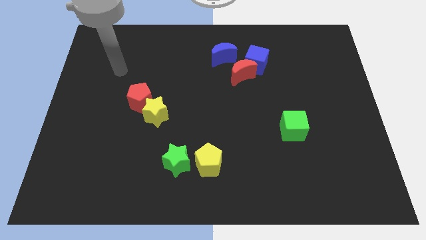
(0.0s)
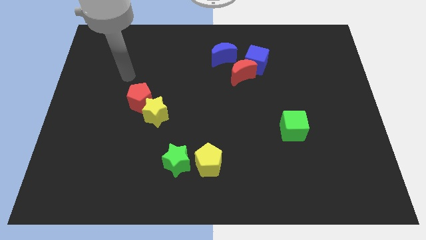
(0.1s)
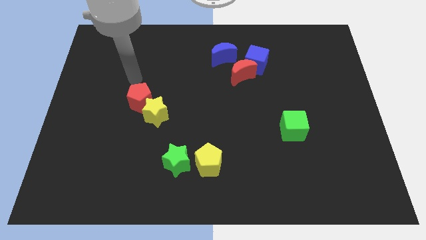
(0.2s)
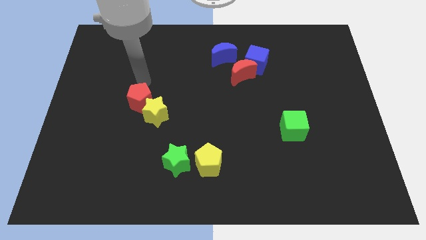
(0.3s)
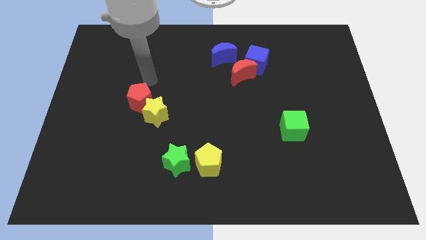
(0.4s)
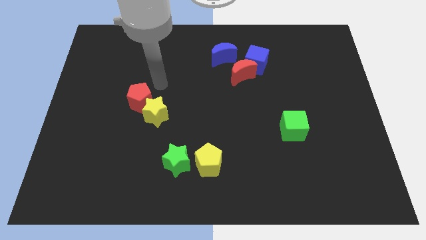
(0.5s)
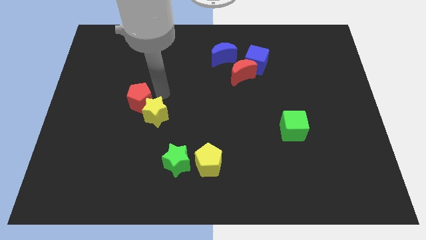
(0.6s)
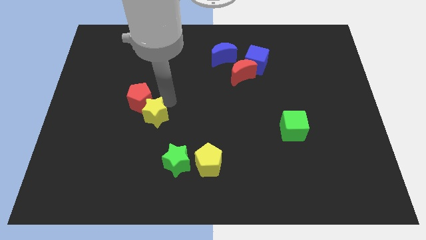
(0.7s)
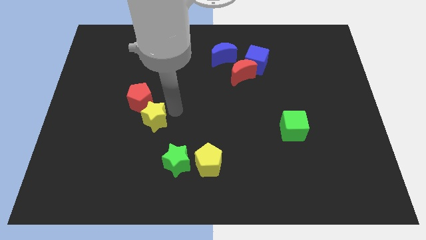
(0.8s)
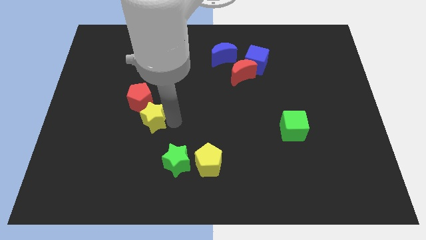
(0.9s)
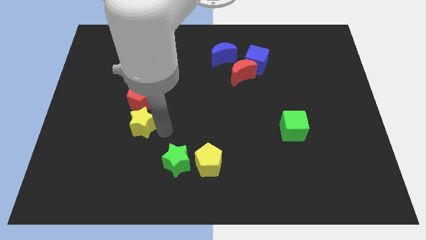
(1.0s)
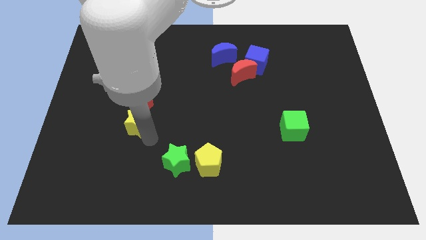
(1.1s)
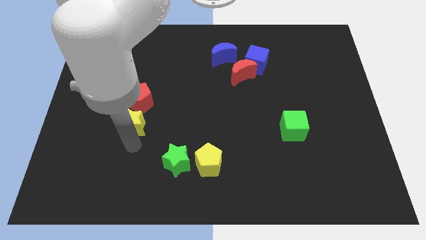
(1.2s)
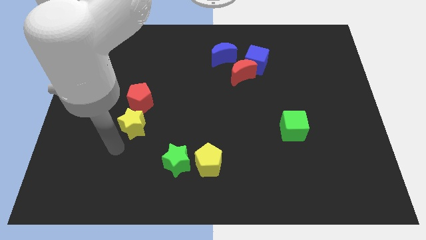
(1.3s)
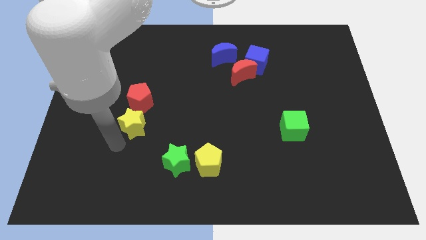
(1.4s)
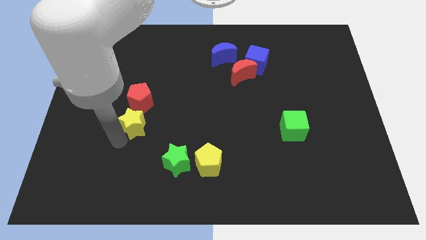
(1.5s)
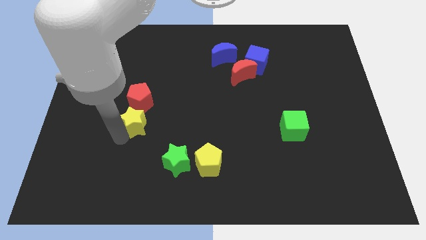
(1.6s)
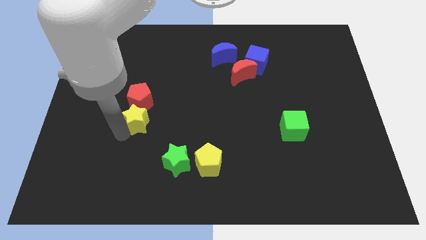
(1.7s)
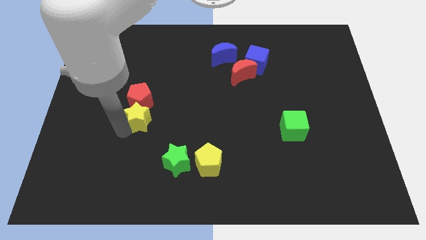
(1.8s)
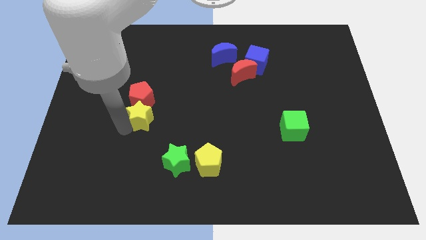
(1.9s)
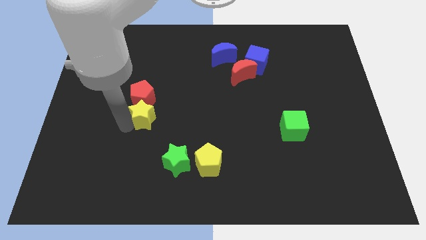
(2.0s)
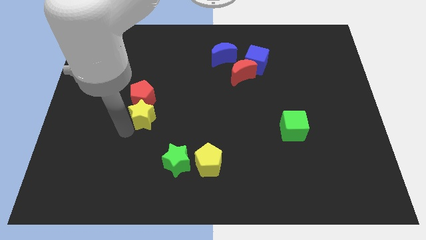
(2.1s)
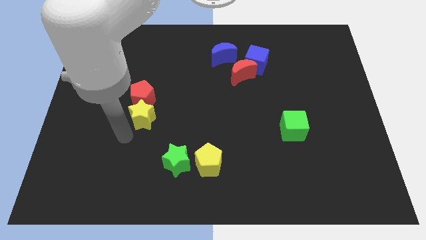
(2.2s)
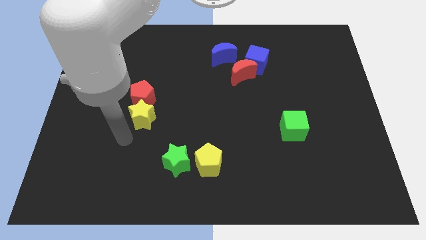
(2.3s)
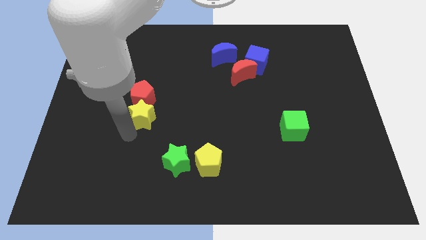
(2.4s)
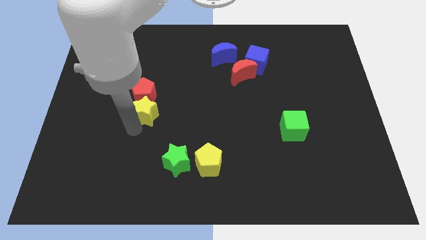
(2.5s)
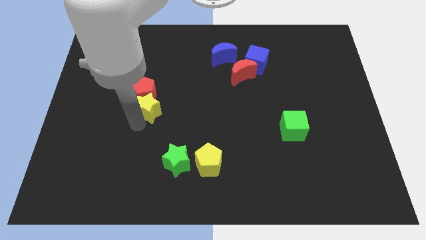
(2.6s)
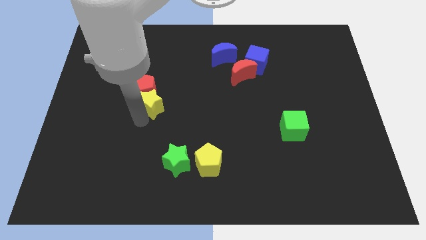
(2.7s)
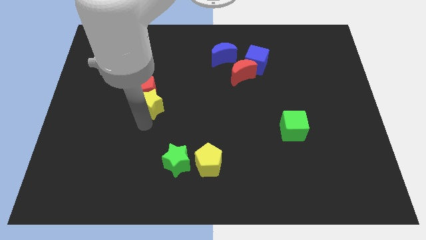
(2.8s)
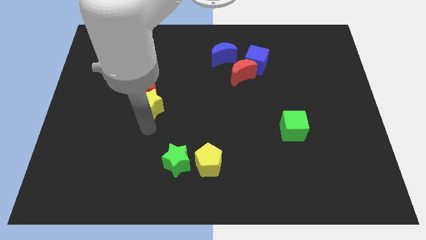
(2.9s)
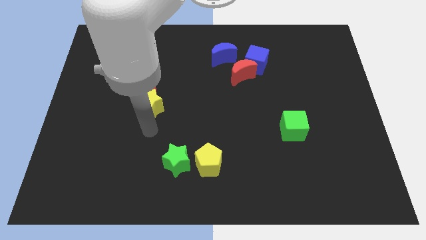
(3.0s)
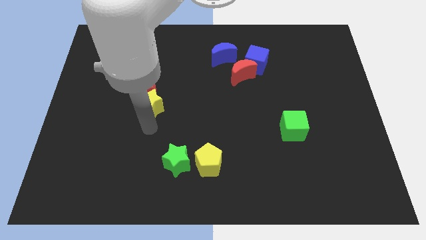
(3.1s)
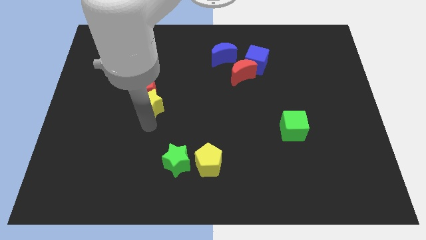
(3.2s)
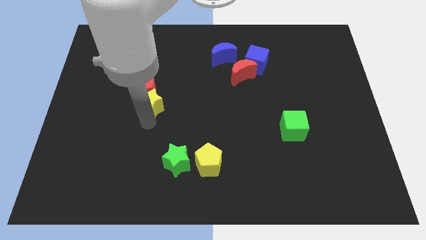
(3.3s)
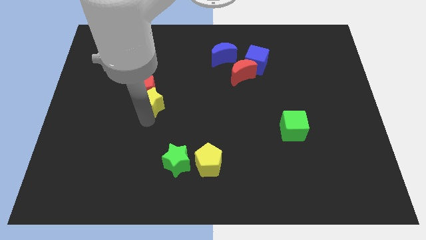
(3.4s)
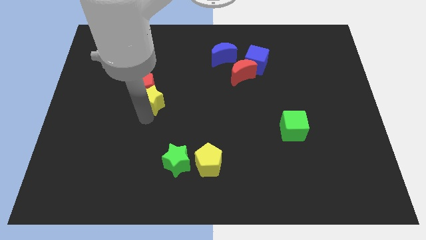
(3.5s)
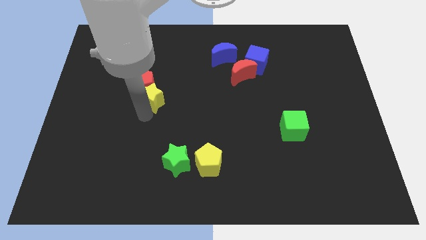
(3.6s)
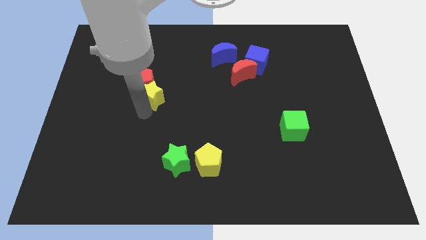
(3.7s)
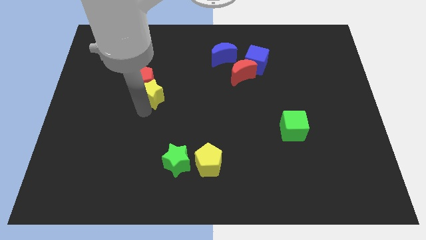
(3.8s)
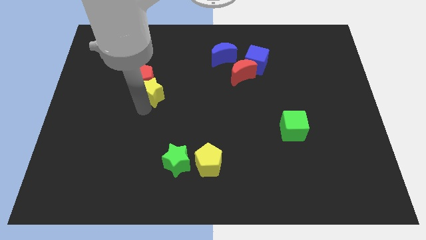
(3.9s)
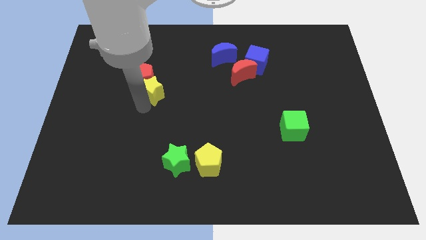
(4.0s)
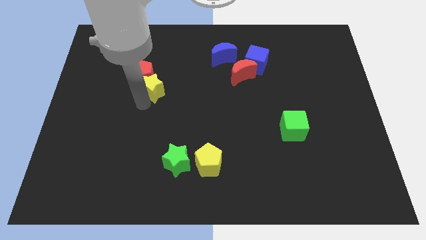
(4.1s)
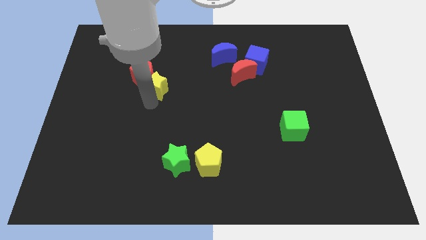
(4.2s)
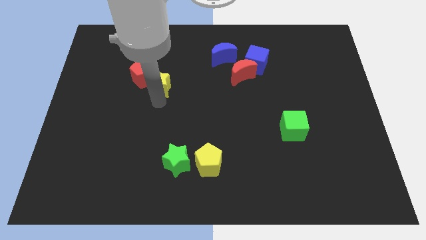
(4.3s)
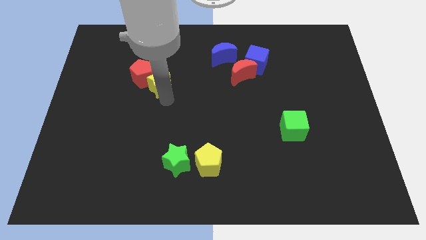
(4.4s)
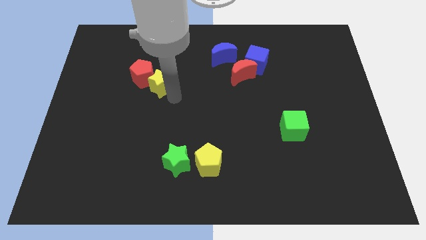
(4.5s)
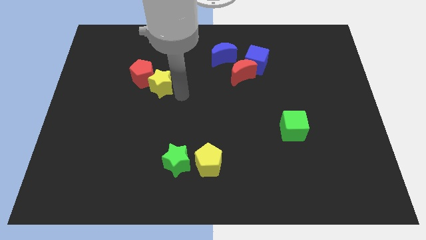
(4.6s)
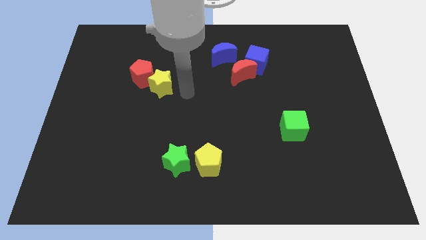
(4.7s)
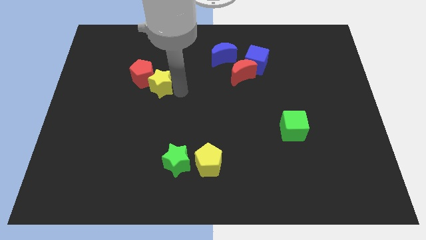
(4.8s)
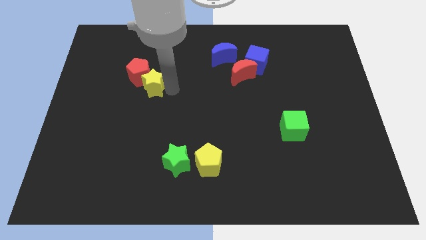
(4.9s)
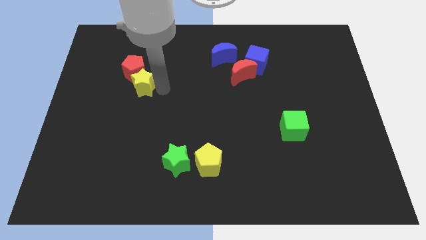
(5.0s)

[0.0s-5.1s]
push the yellow star upwards and to the left diagonally a bit

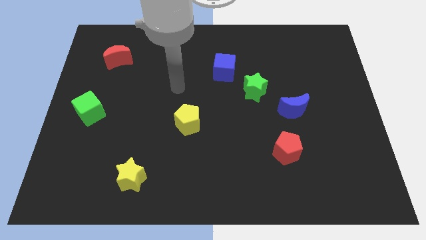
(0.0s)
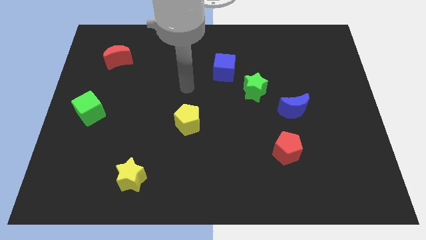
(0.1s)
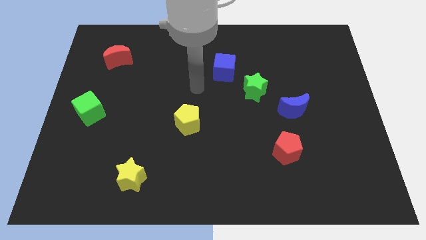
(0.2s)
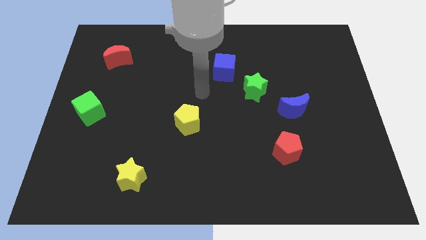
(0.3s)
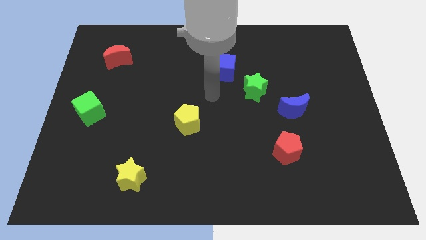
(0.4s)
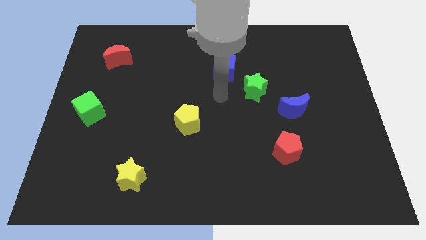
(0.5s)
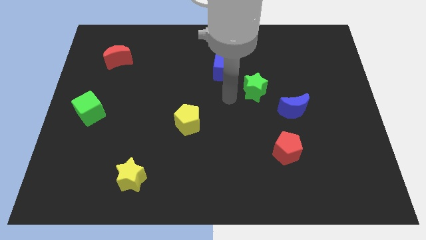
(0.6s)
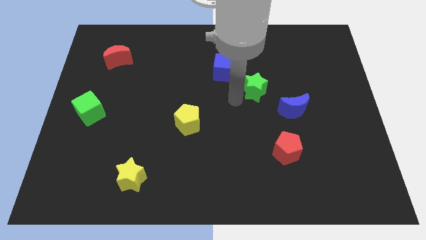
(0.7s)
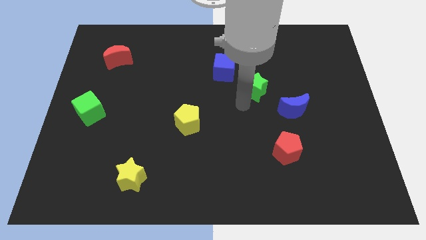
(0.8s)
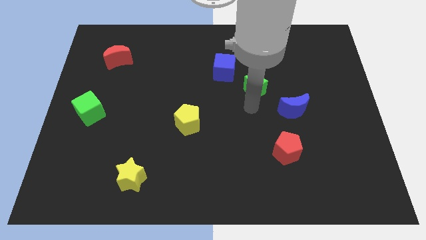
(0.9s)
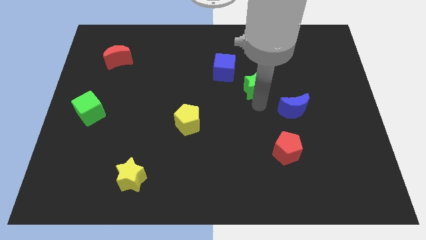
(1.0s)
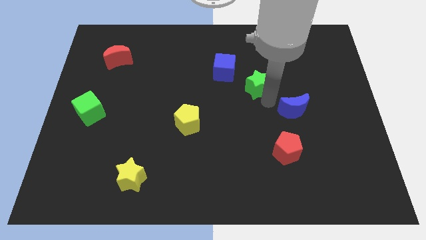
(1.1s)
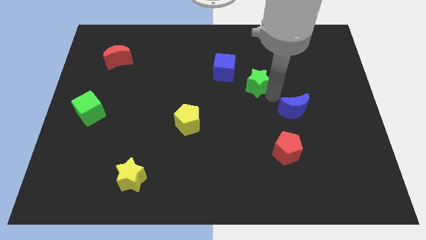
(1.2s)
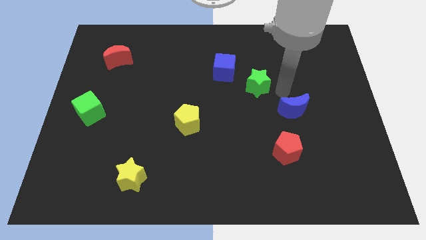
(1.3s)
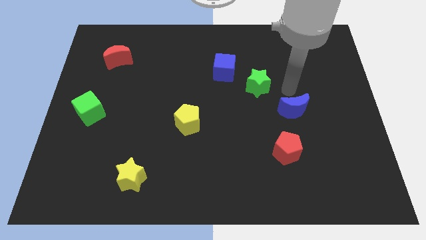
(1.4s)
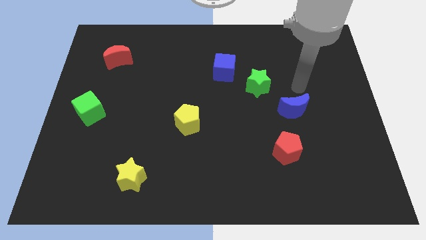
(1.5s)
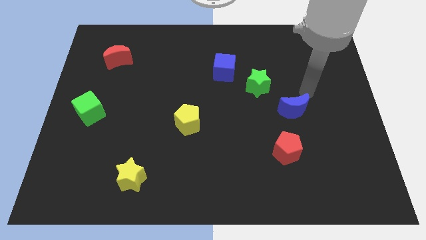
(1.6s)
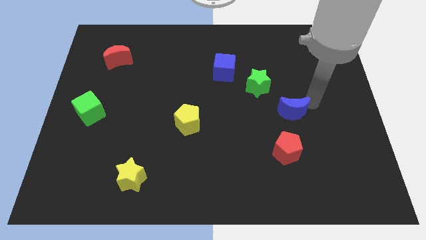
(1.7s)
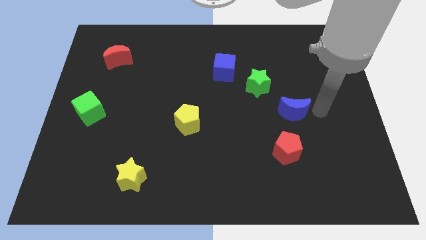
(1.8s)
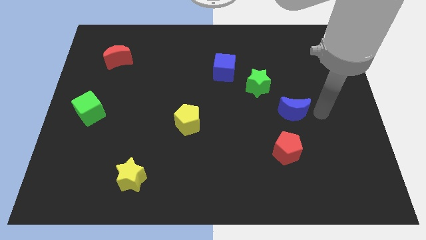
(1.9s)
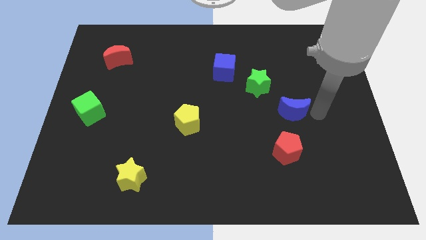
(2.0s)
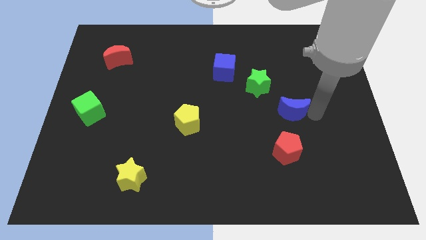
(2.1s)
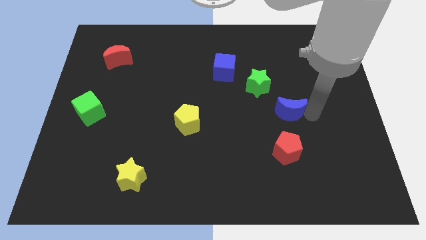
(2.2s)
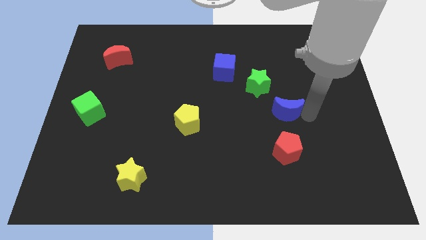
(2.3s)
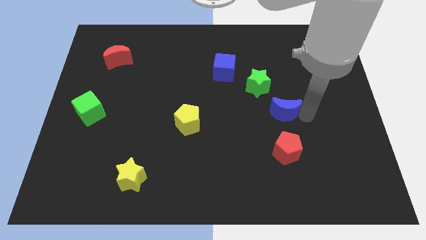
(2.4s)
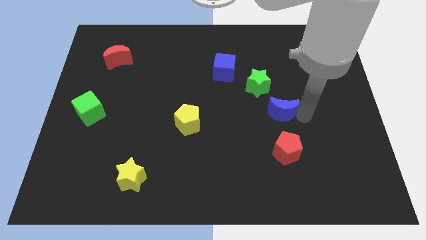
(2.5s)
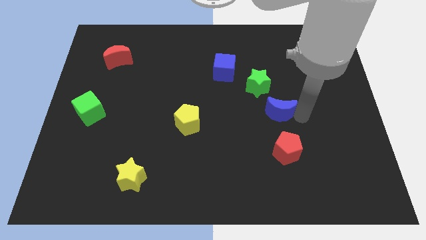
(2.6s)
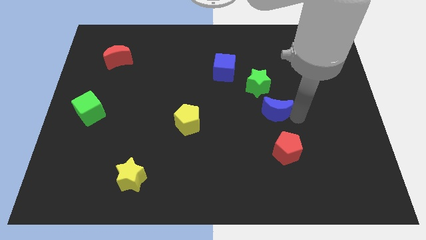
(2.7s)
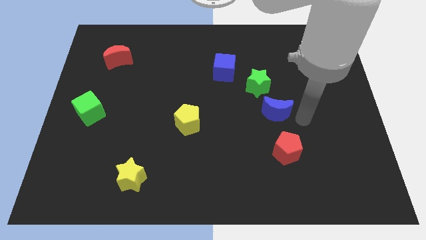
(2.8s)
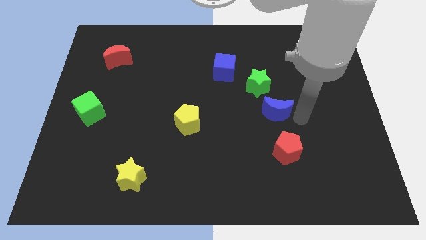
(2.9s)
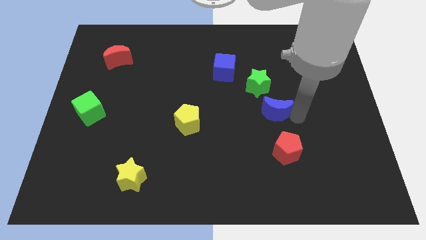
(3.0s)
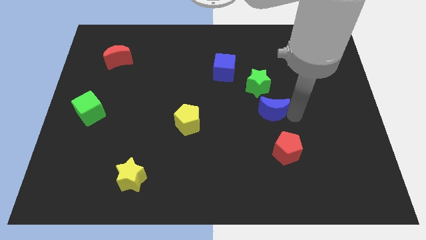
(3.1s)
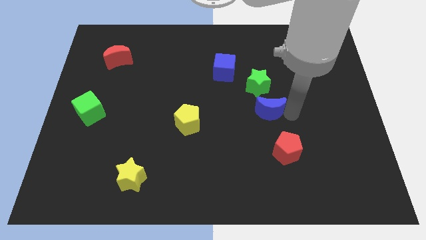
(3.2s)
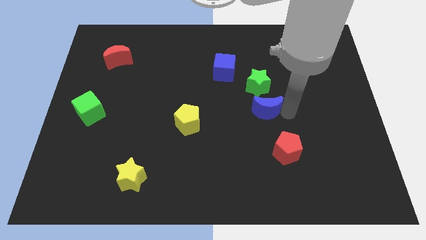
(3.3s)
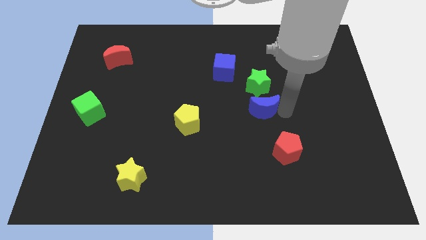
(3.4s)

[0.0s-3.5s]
slightly push the blue moon left
